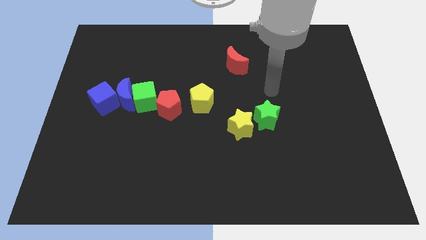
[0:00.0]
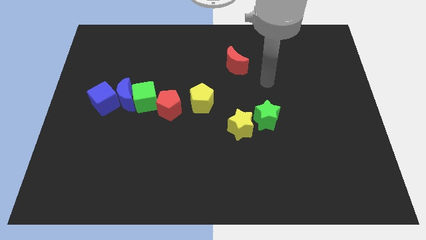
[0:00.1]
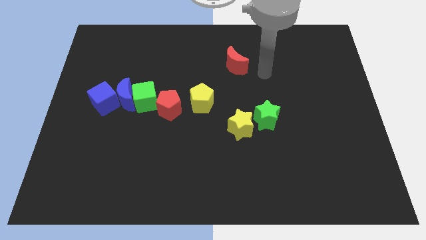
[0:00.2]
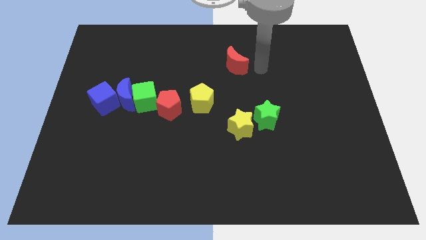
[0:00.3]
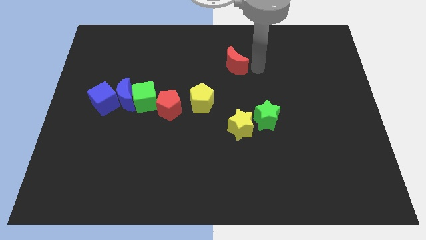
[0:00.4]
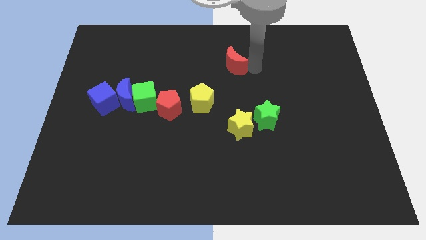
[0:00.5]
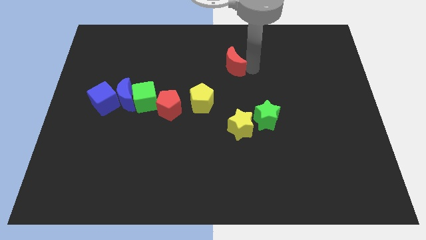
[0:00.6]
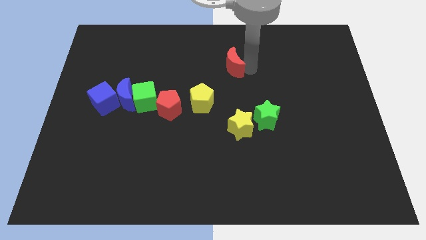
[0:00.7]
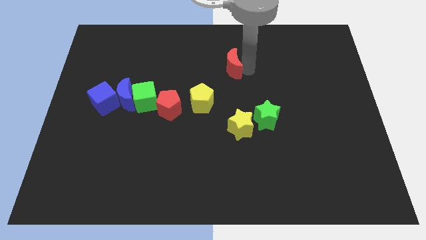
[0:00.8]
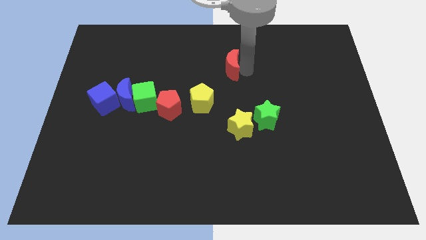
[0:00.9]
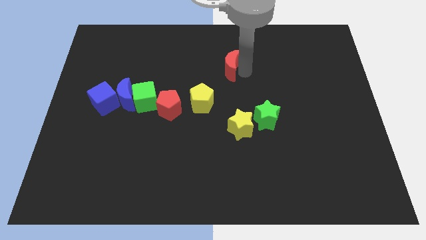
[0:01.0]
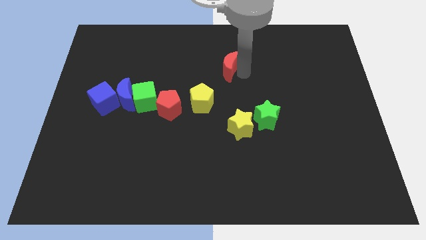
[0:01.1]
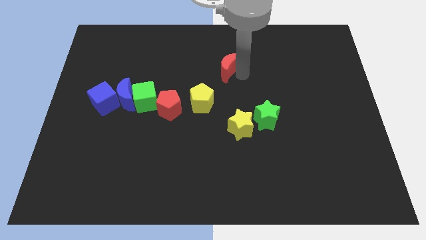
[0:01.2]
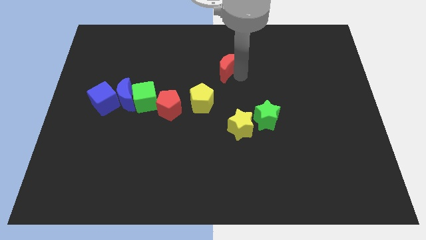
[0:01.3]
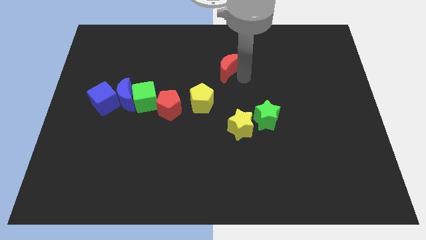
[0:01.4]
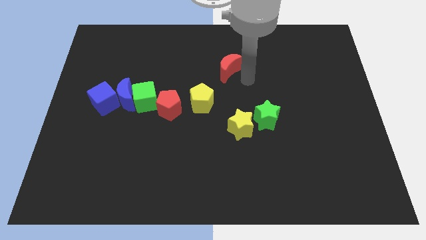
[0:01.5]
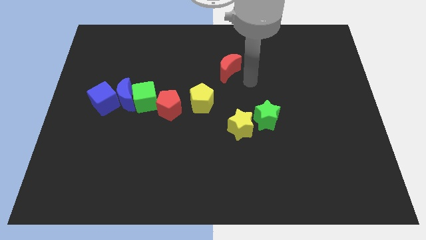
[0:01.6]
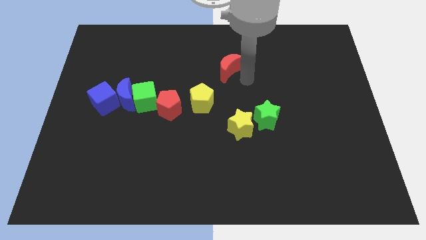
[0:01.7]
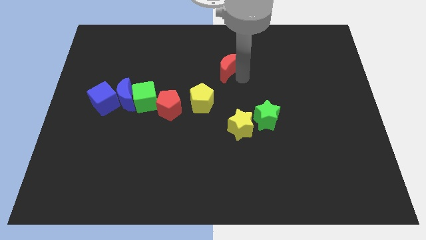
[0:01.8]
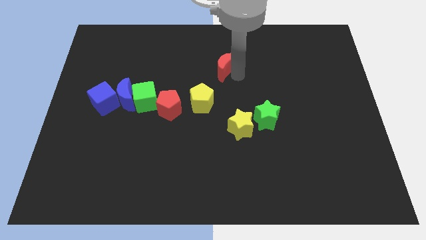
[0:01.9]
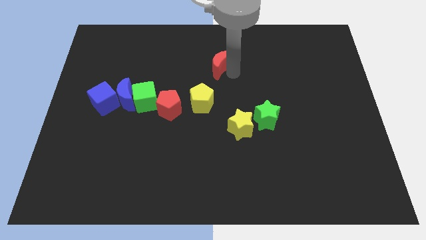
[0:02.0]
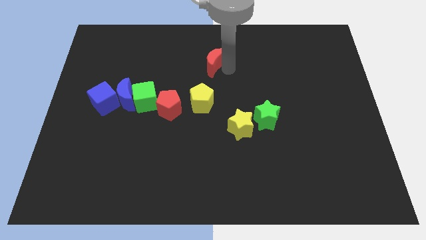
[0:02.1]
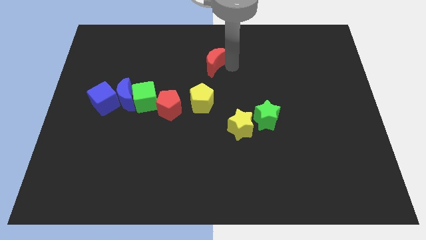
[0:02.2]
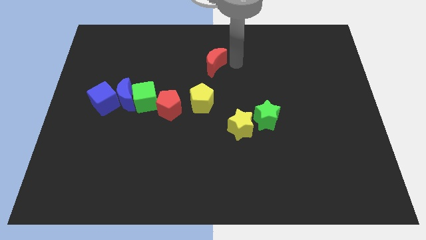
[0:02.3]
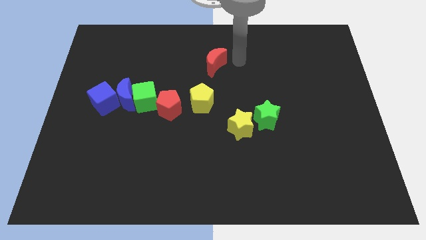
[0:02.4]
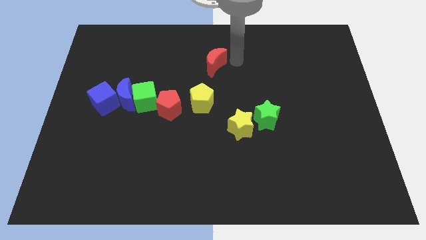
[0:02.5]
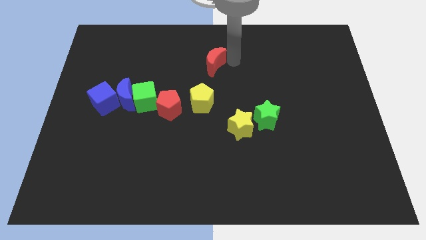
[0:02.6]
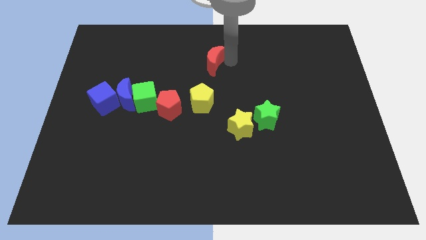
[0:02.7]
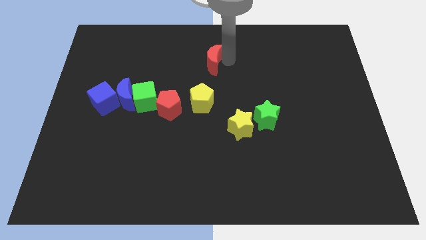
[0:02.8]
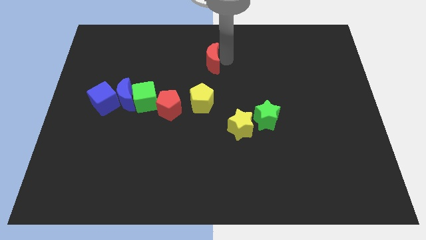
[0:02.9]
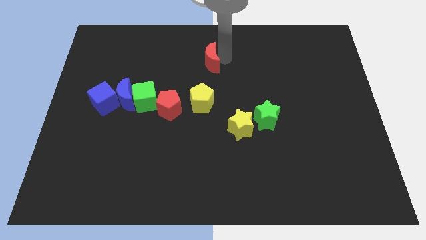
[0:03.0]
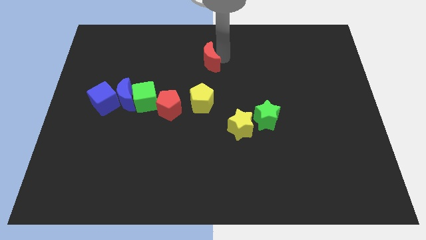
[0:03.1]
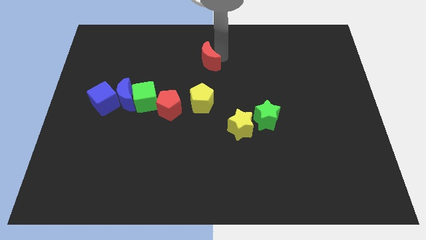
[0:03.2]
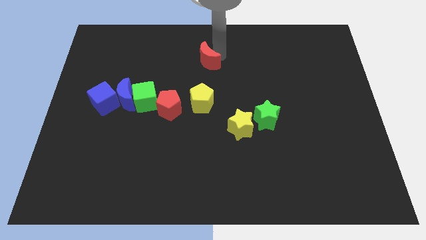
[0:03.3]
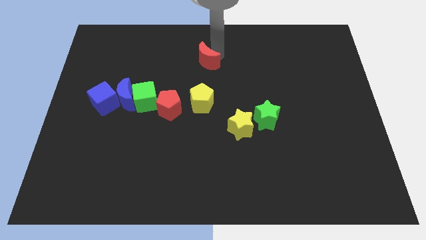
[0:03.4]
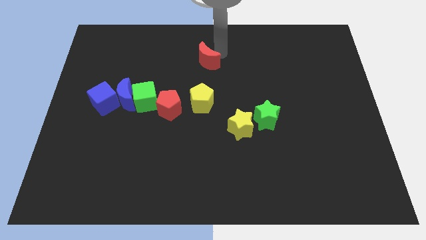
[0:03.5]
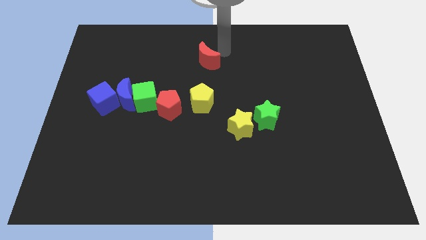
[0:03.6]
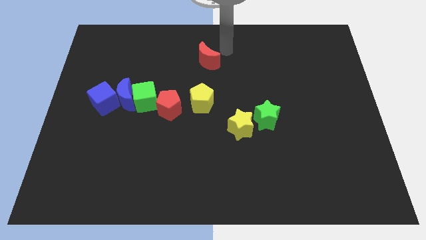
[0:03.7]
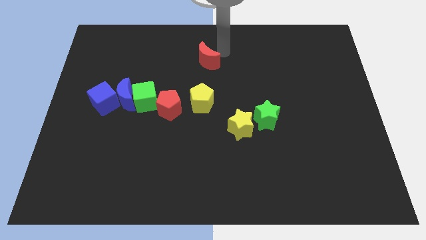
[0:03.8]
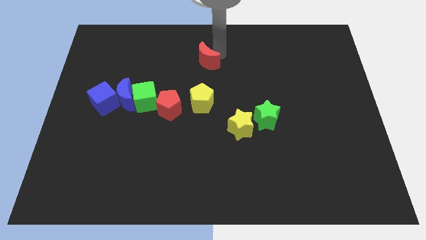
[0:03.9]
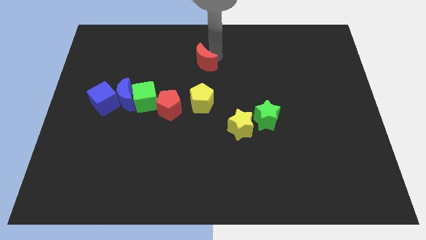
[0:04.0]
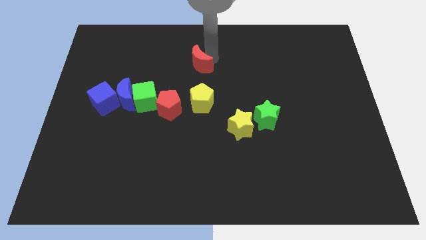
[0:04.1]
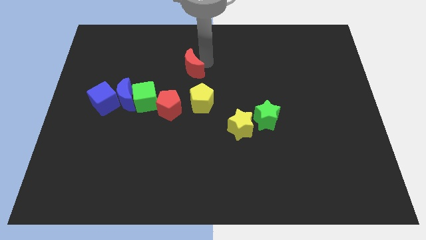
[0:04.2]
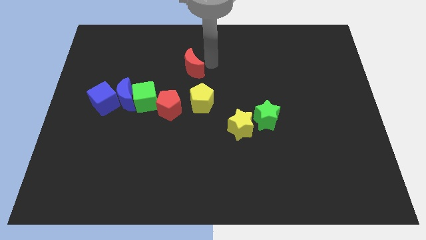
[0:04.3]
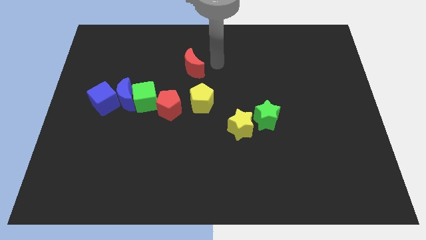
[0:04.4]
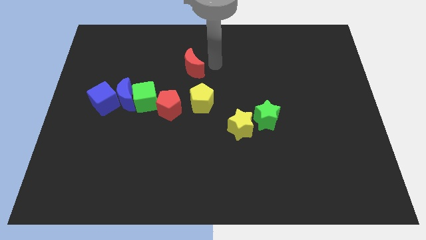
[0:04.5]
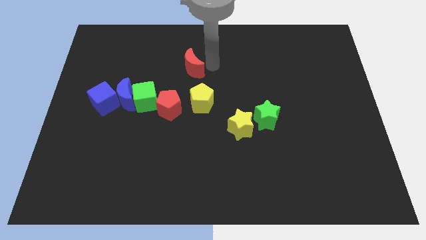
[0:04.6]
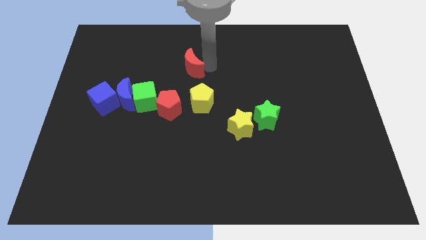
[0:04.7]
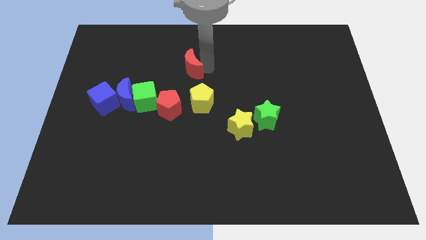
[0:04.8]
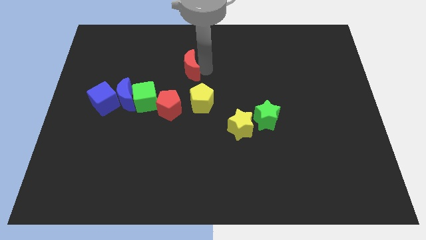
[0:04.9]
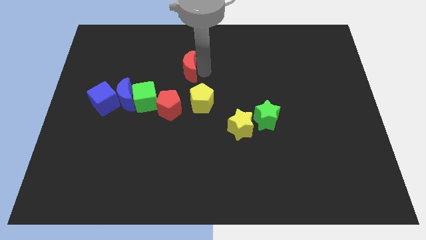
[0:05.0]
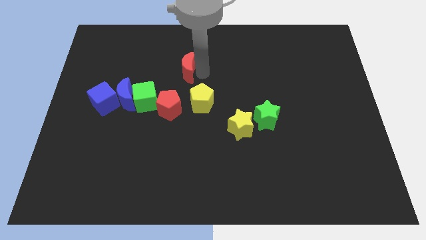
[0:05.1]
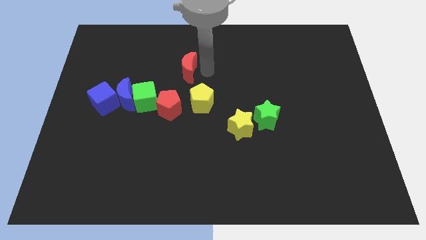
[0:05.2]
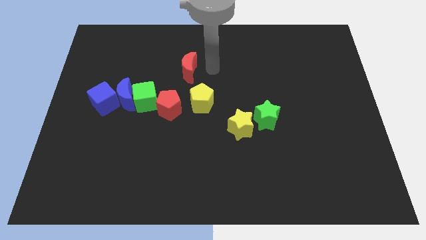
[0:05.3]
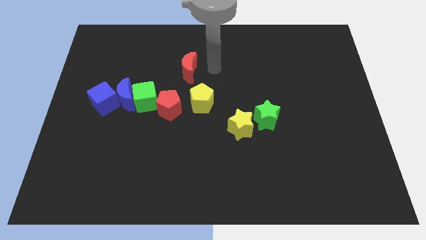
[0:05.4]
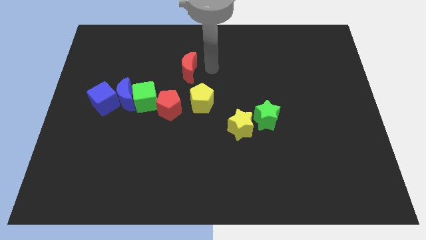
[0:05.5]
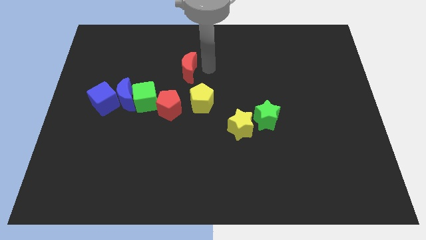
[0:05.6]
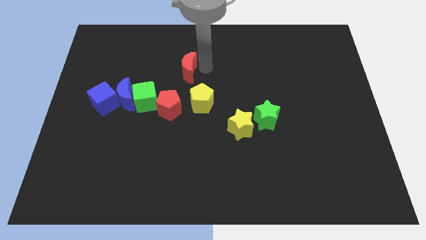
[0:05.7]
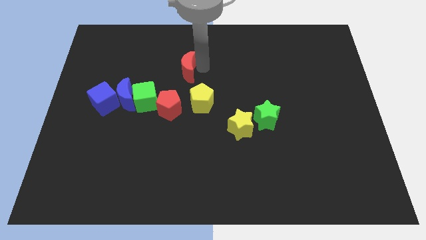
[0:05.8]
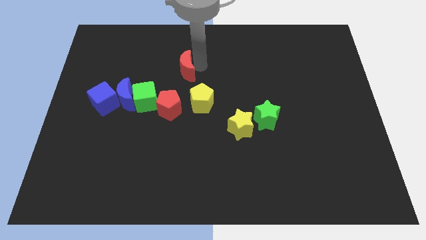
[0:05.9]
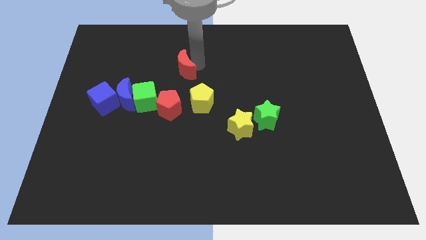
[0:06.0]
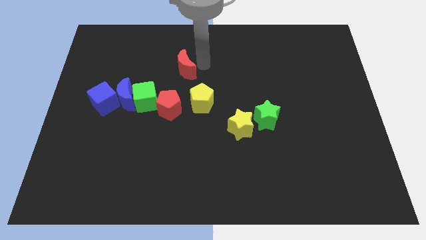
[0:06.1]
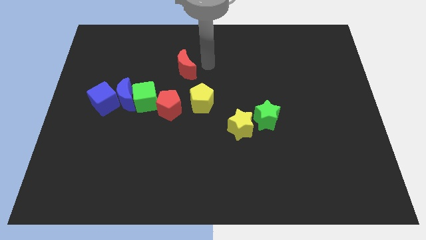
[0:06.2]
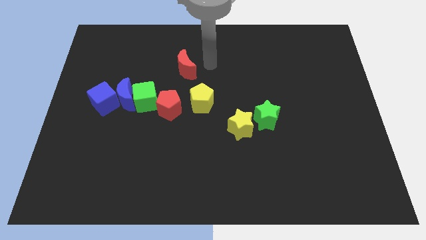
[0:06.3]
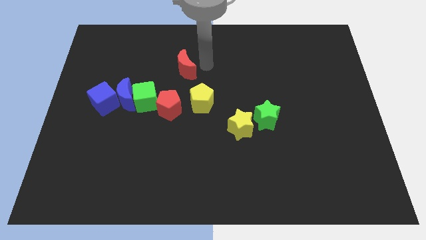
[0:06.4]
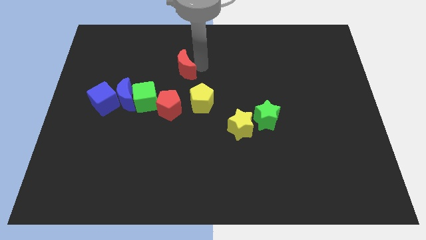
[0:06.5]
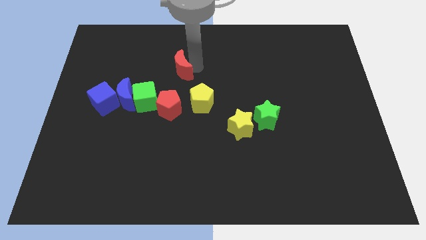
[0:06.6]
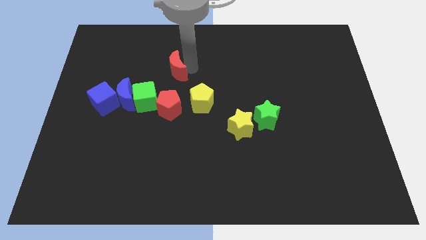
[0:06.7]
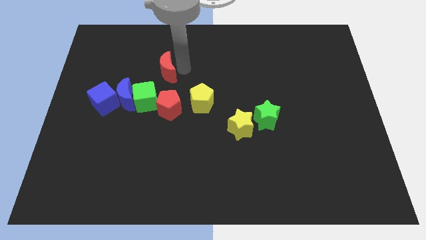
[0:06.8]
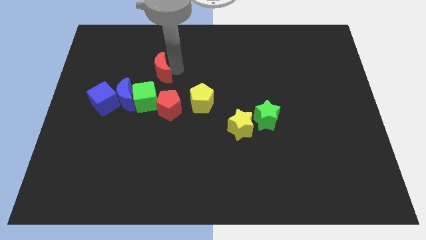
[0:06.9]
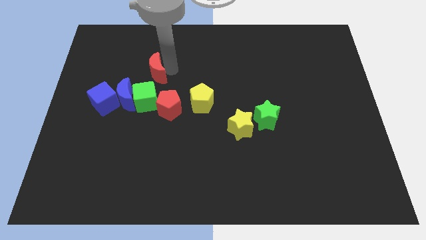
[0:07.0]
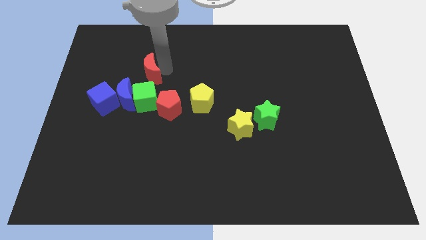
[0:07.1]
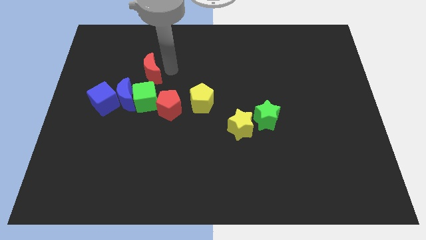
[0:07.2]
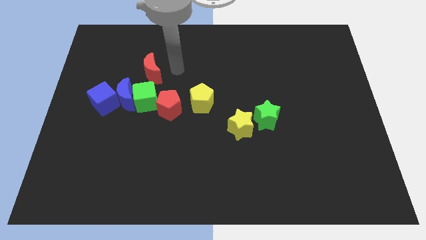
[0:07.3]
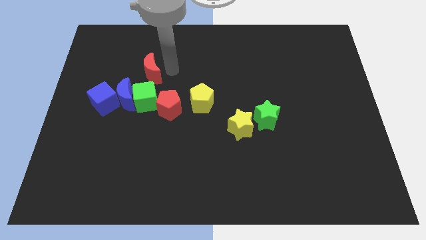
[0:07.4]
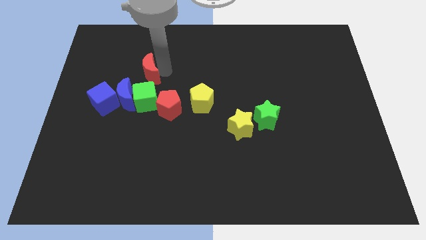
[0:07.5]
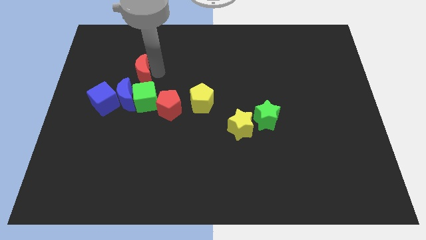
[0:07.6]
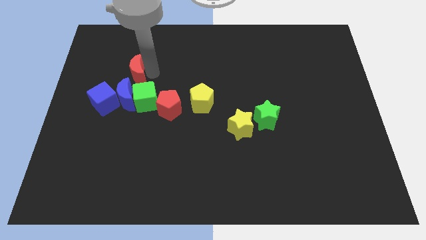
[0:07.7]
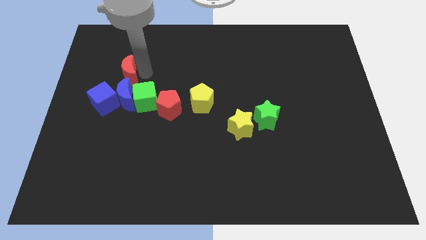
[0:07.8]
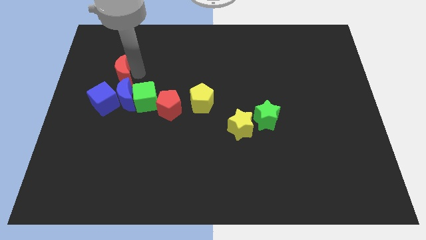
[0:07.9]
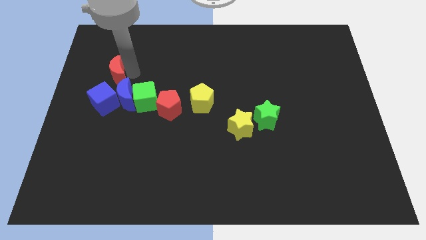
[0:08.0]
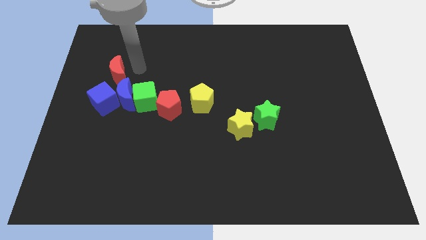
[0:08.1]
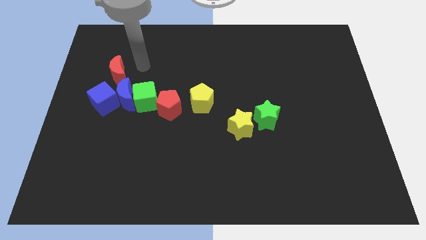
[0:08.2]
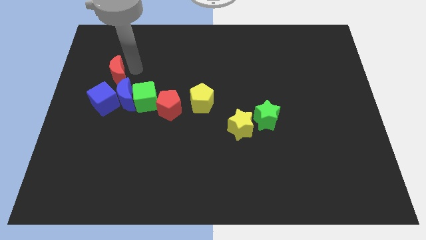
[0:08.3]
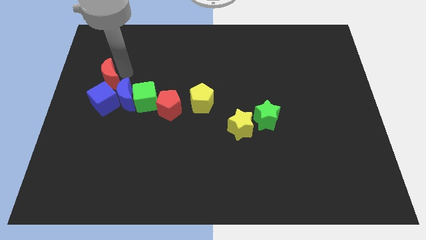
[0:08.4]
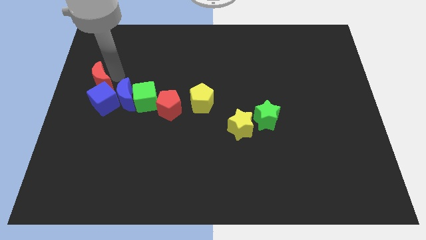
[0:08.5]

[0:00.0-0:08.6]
push the red moon to the left side
